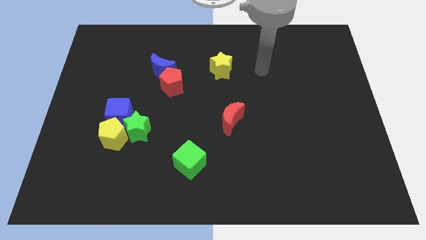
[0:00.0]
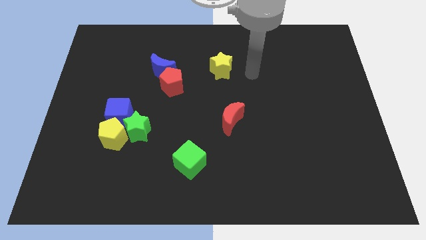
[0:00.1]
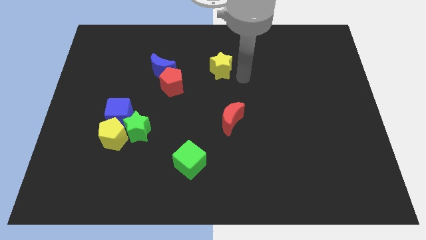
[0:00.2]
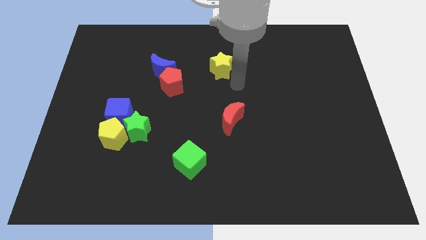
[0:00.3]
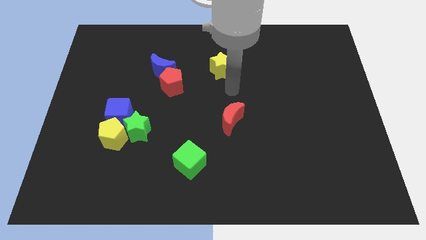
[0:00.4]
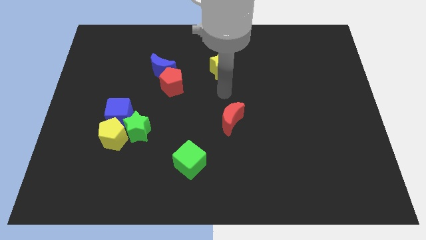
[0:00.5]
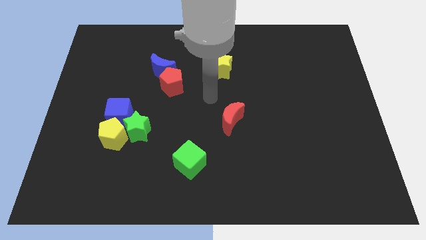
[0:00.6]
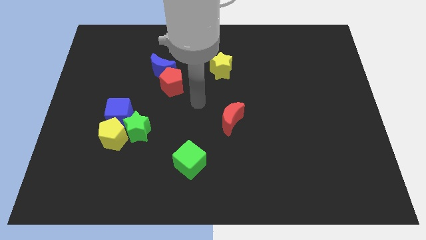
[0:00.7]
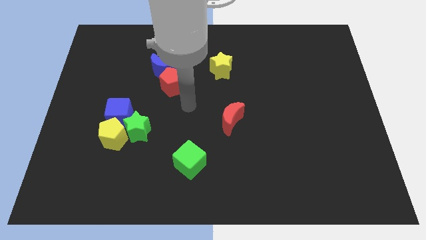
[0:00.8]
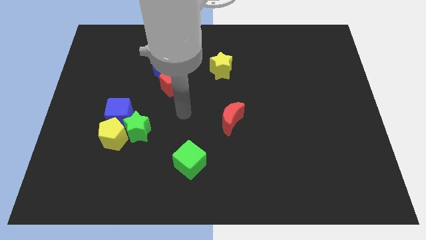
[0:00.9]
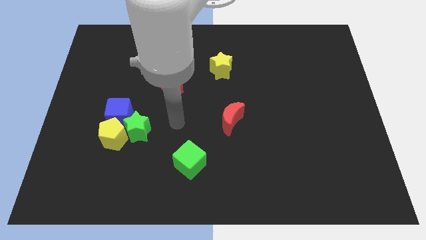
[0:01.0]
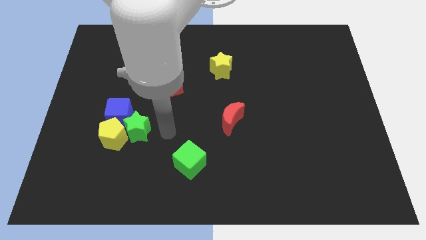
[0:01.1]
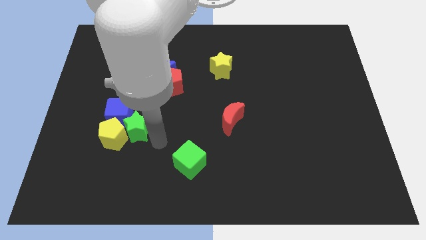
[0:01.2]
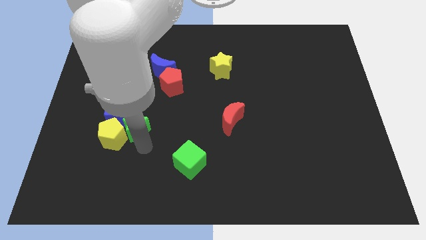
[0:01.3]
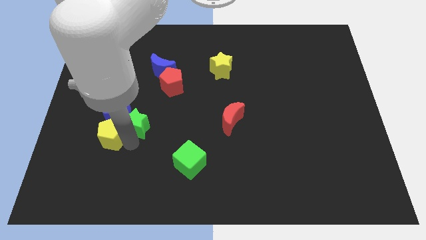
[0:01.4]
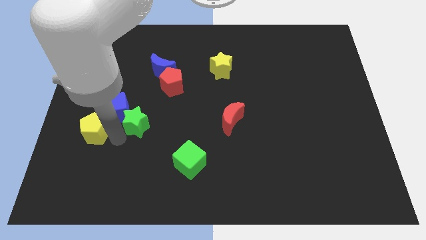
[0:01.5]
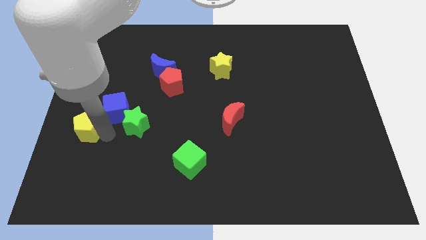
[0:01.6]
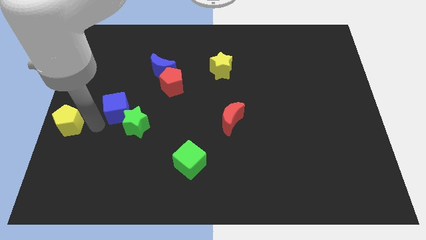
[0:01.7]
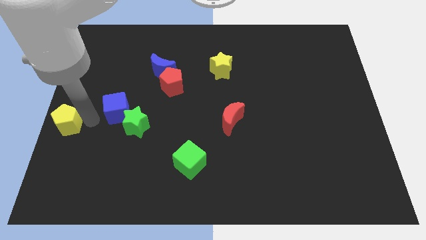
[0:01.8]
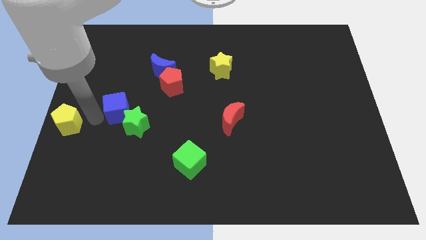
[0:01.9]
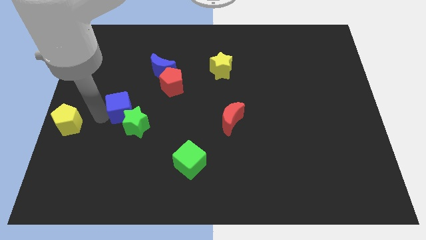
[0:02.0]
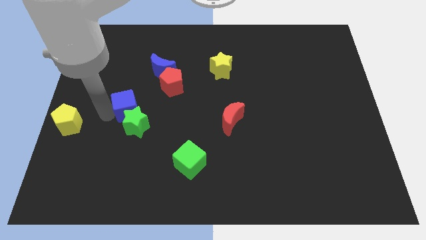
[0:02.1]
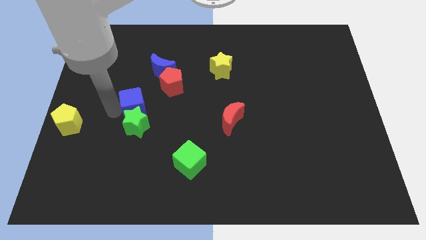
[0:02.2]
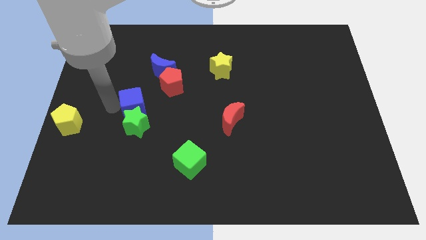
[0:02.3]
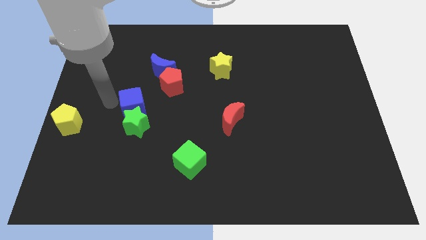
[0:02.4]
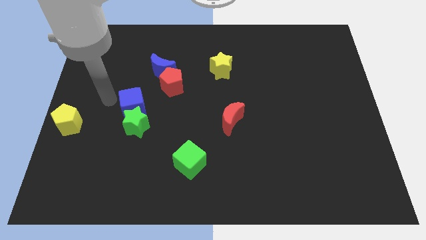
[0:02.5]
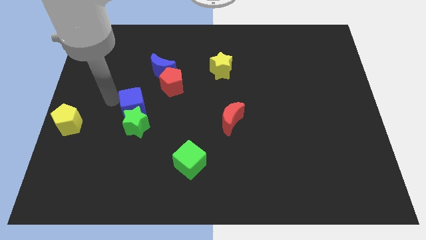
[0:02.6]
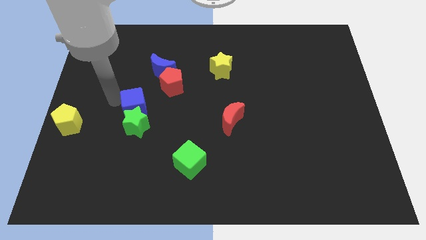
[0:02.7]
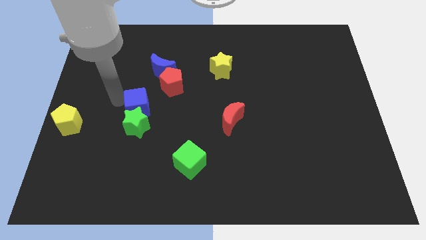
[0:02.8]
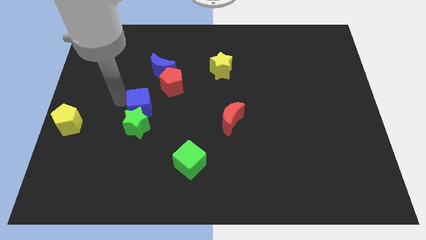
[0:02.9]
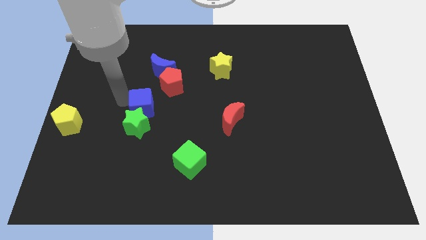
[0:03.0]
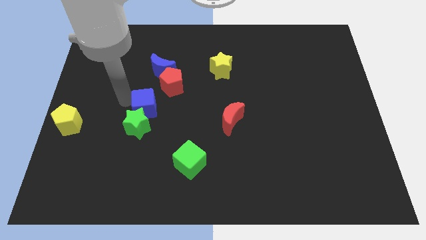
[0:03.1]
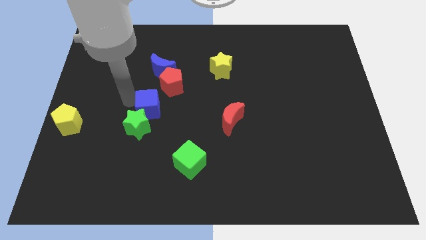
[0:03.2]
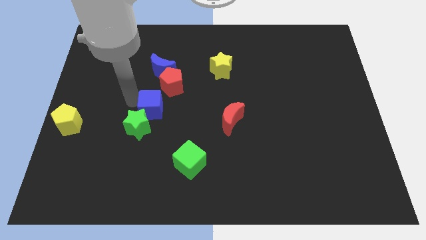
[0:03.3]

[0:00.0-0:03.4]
push the blue cube to the right a little bit

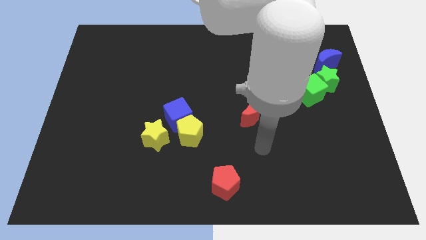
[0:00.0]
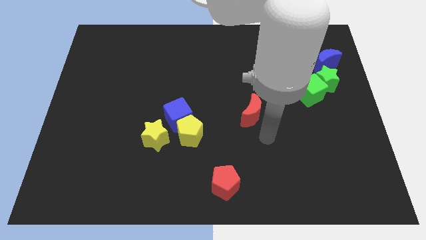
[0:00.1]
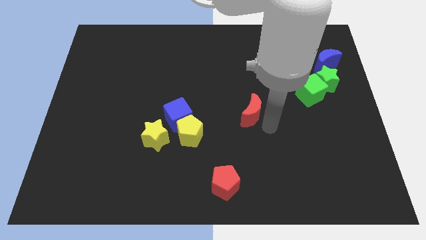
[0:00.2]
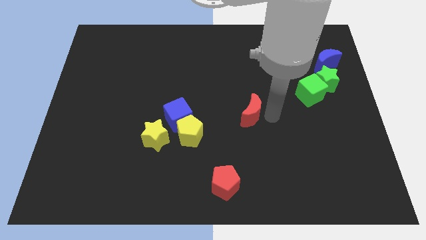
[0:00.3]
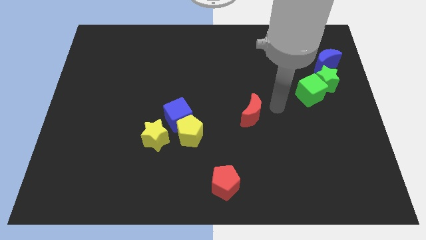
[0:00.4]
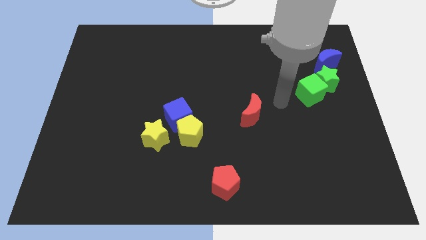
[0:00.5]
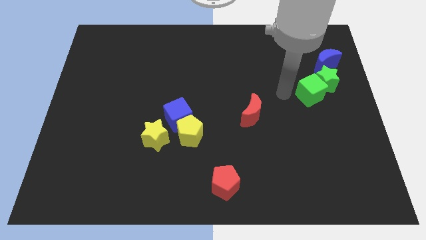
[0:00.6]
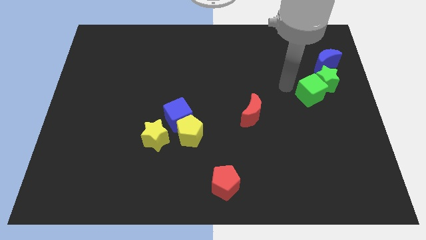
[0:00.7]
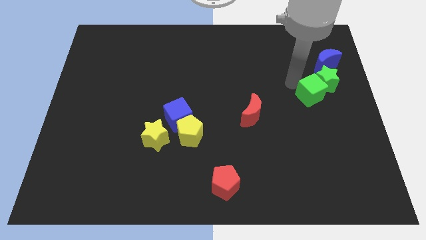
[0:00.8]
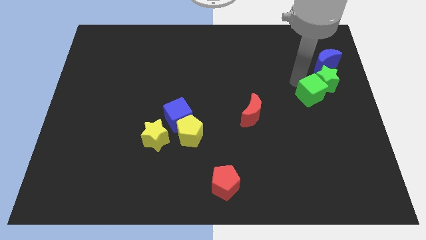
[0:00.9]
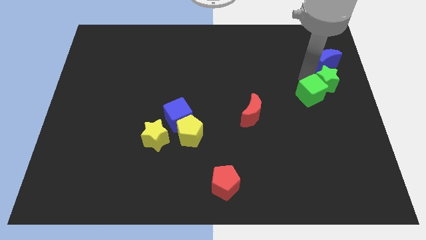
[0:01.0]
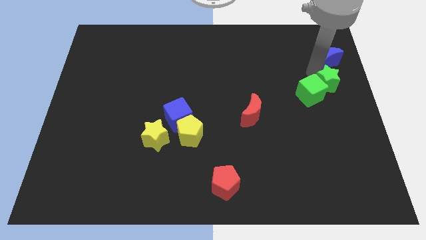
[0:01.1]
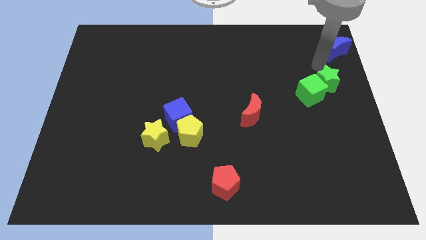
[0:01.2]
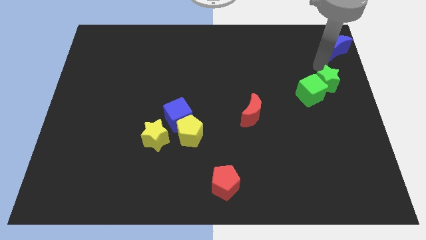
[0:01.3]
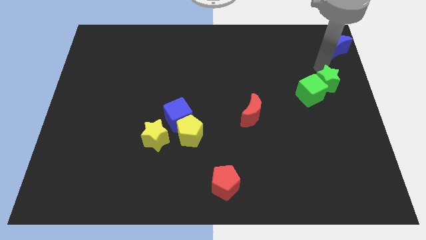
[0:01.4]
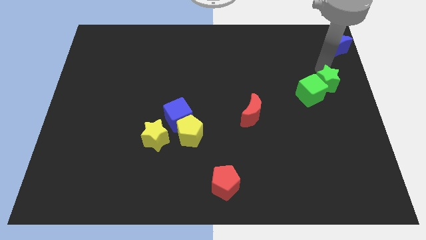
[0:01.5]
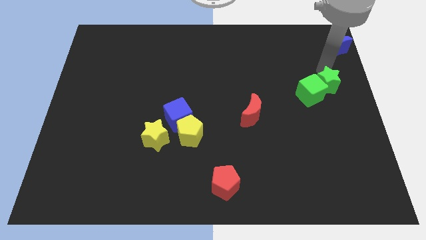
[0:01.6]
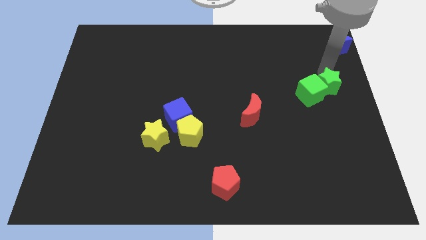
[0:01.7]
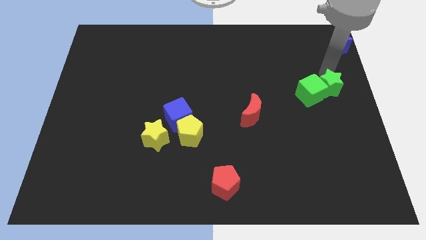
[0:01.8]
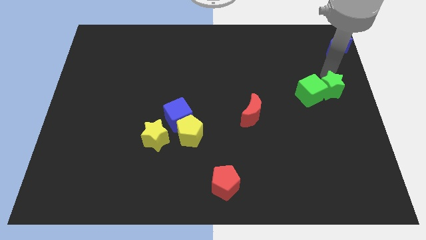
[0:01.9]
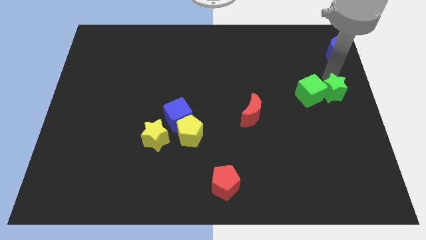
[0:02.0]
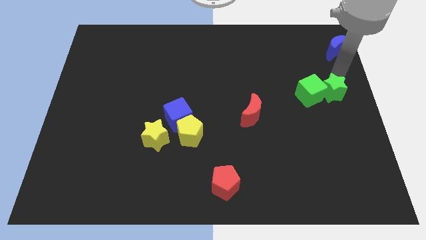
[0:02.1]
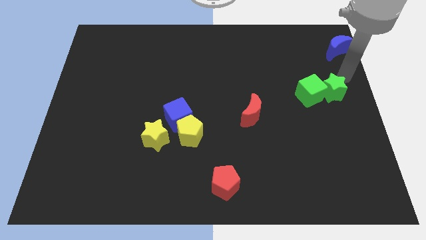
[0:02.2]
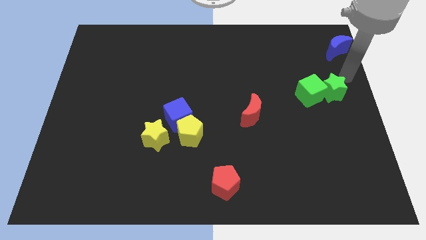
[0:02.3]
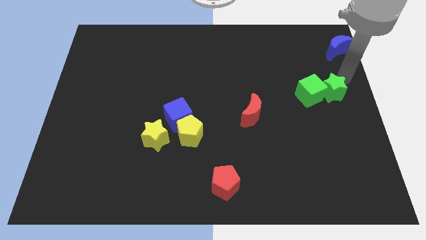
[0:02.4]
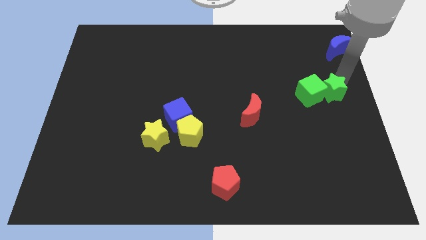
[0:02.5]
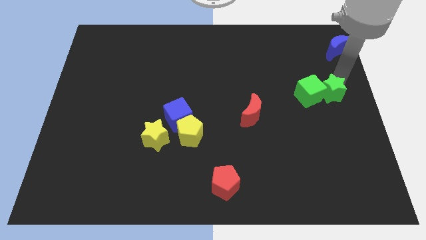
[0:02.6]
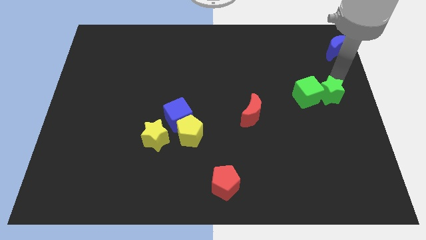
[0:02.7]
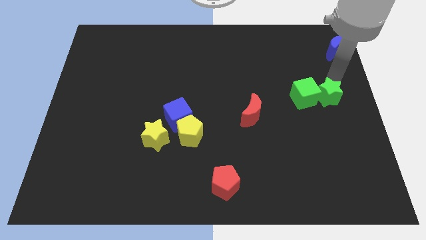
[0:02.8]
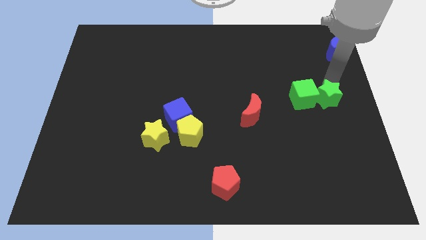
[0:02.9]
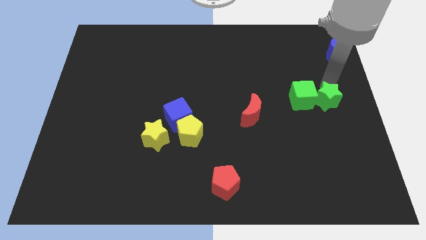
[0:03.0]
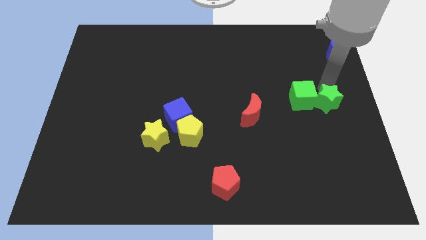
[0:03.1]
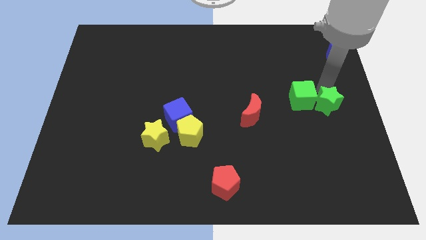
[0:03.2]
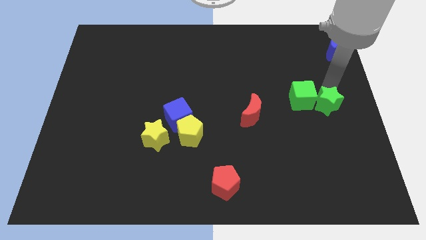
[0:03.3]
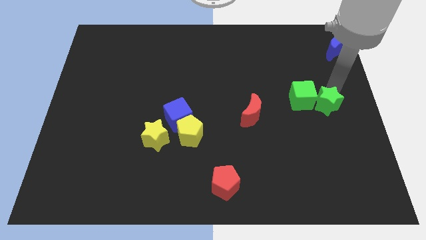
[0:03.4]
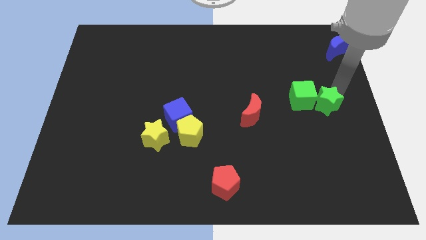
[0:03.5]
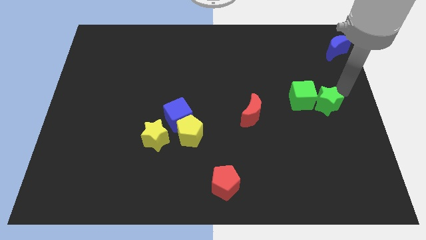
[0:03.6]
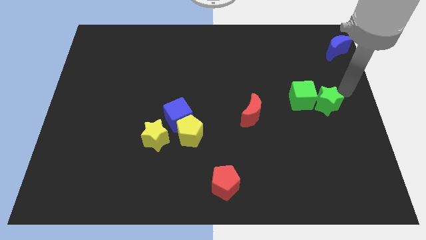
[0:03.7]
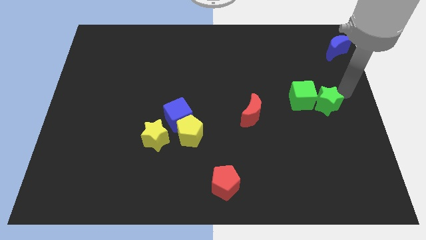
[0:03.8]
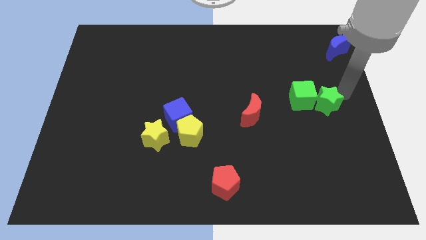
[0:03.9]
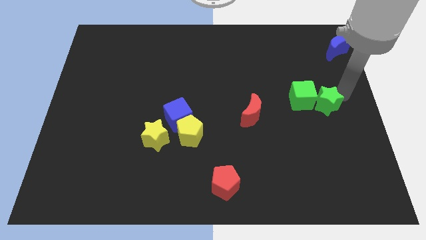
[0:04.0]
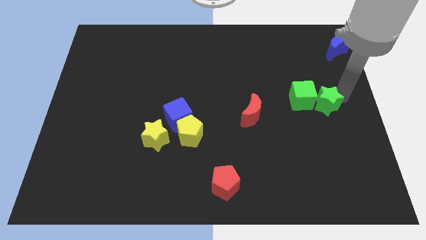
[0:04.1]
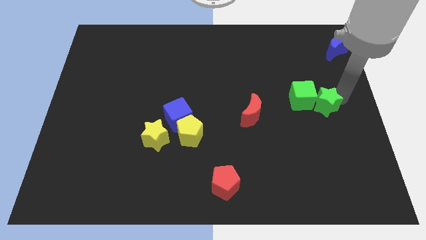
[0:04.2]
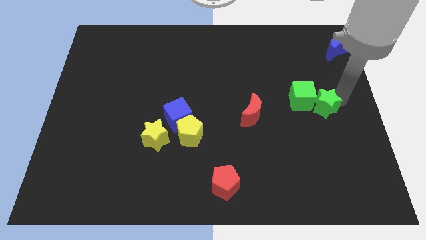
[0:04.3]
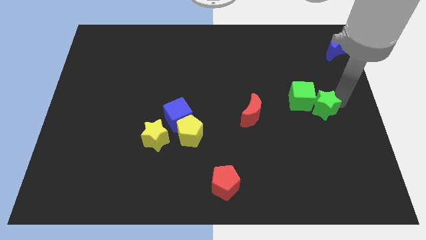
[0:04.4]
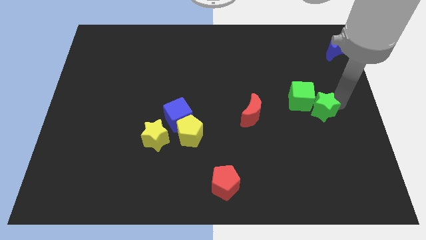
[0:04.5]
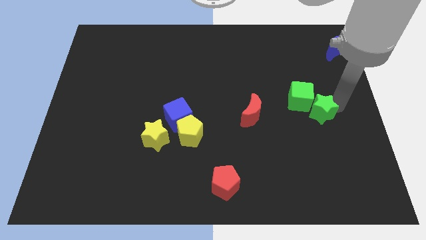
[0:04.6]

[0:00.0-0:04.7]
push the green star a bit diagonally downwards and left

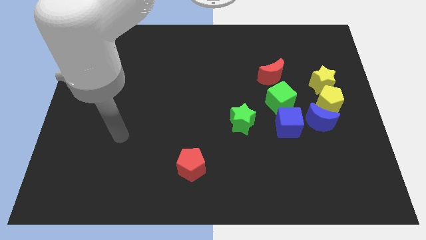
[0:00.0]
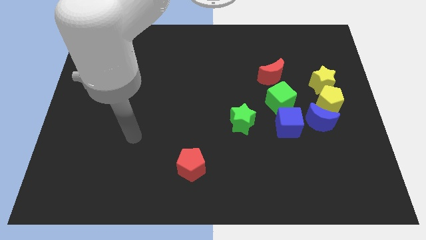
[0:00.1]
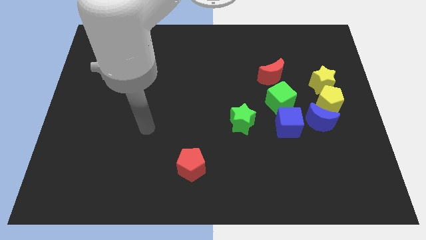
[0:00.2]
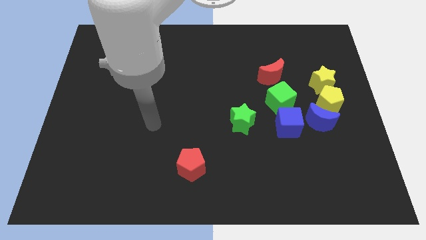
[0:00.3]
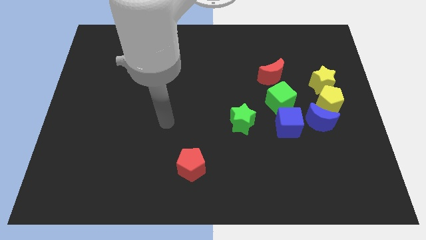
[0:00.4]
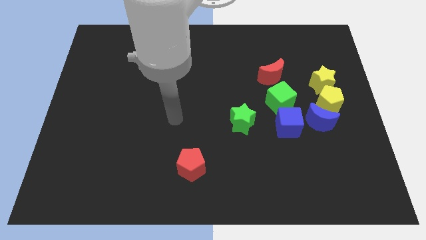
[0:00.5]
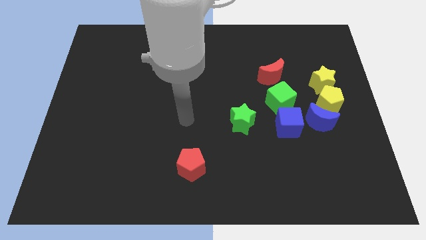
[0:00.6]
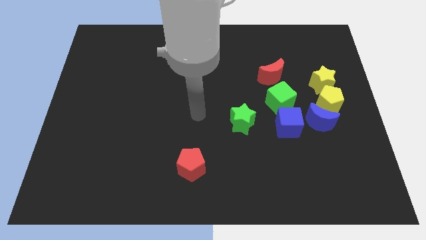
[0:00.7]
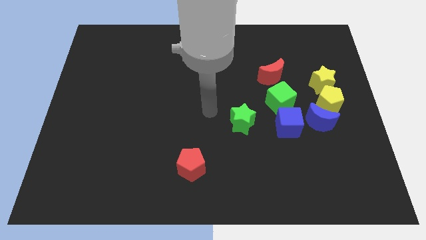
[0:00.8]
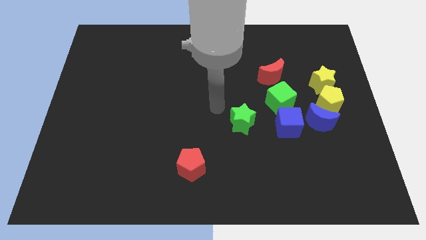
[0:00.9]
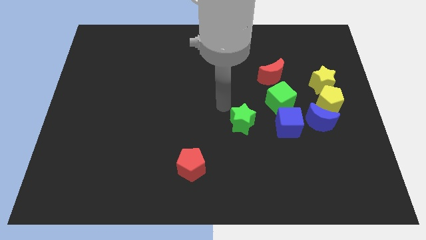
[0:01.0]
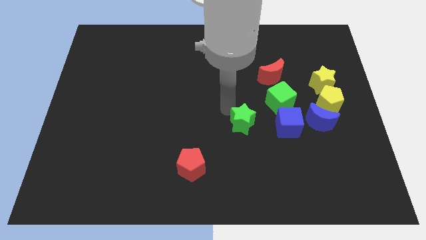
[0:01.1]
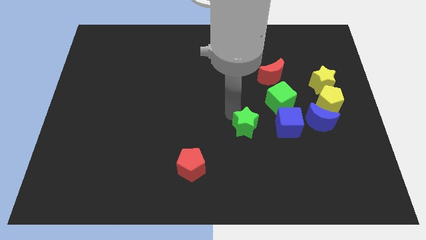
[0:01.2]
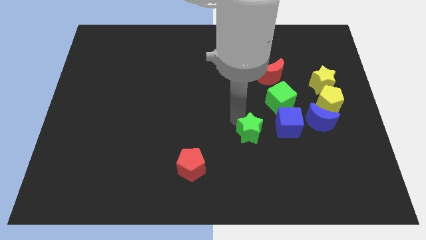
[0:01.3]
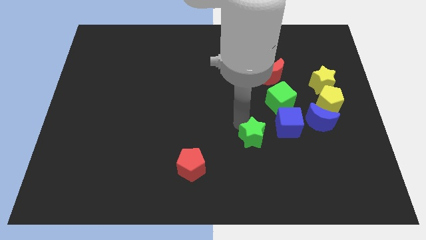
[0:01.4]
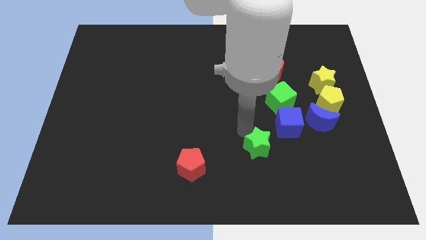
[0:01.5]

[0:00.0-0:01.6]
slightly slide the green star downwards and then right
